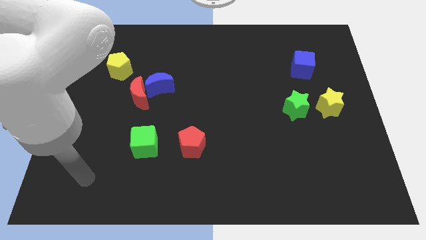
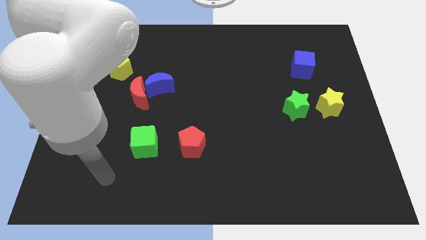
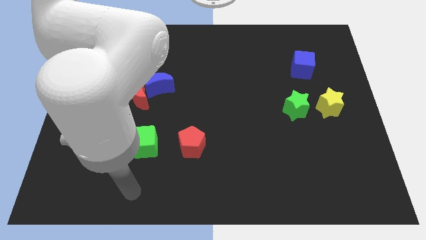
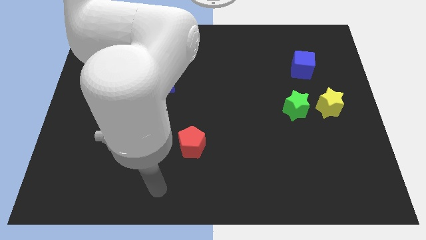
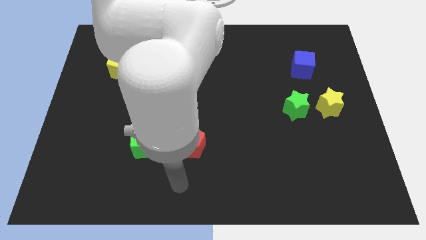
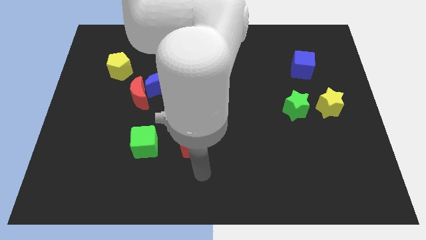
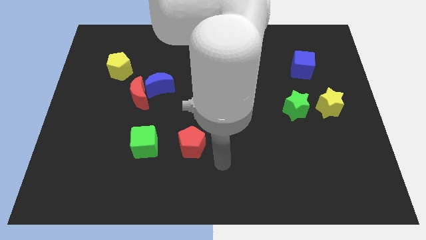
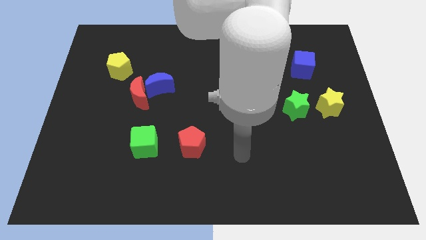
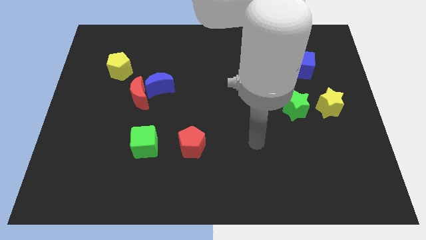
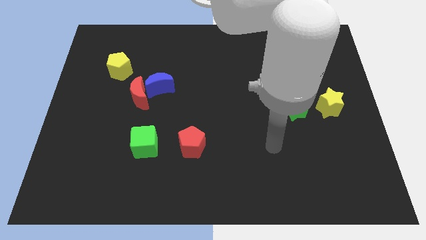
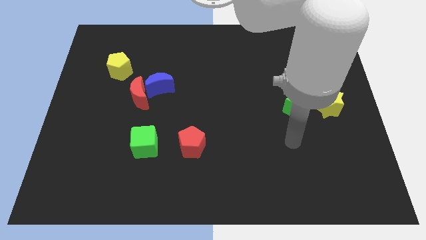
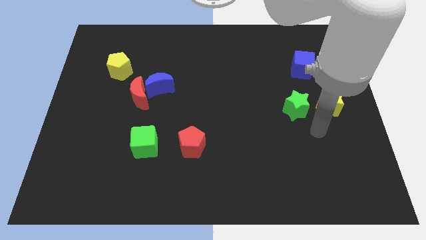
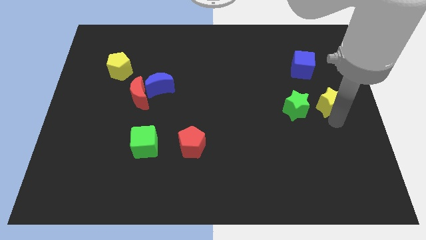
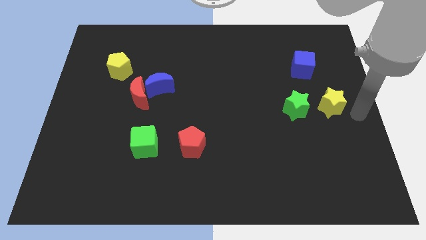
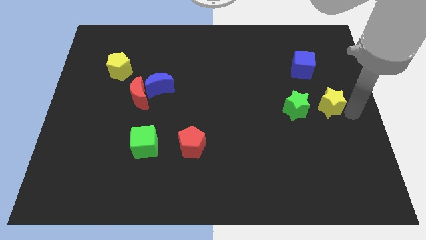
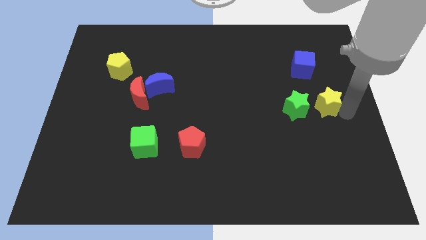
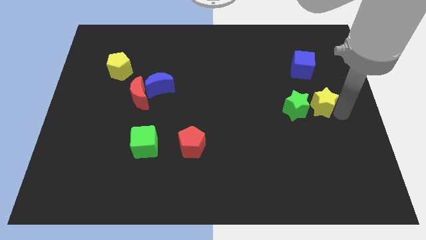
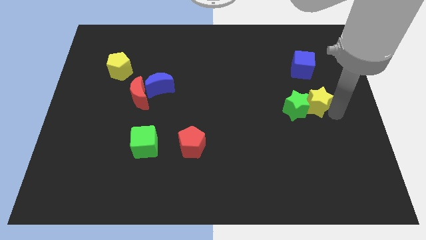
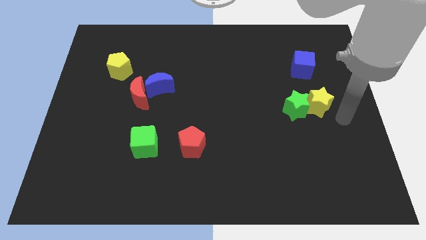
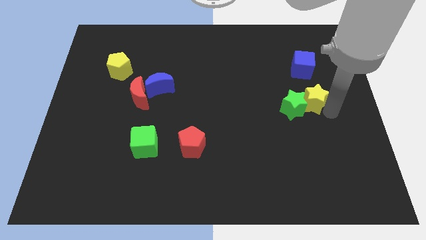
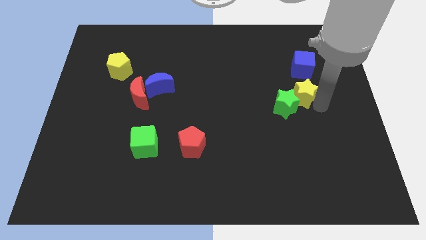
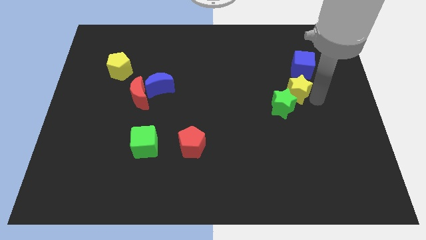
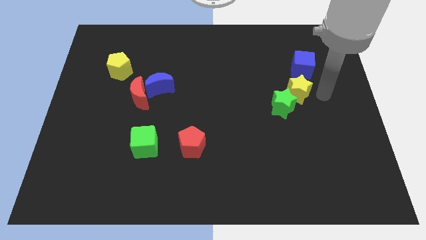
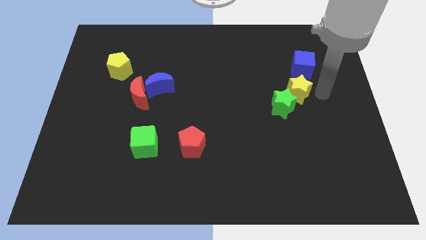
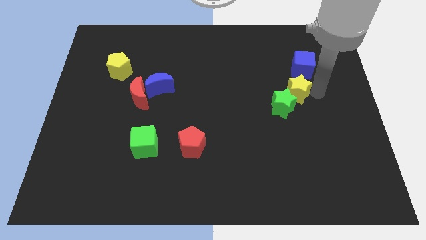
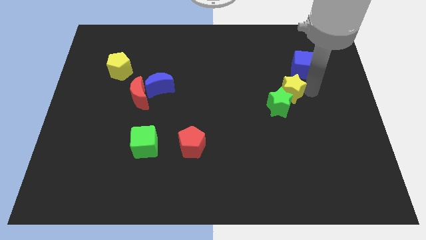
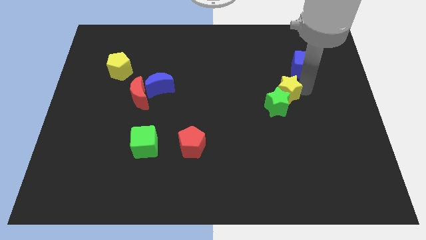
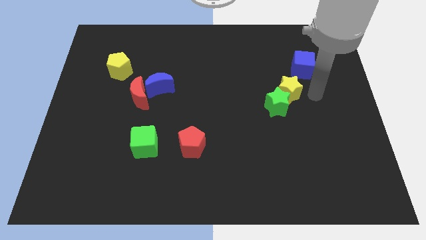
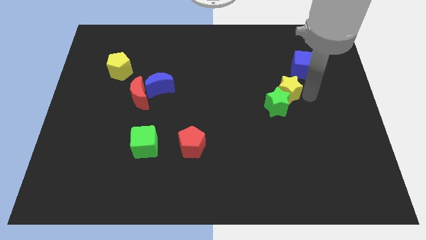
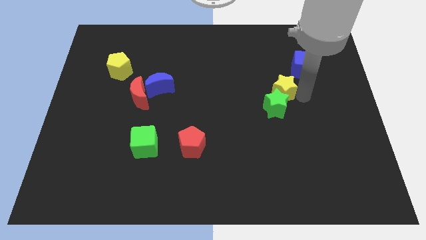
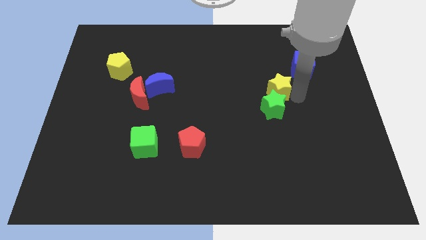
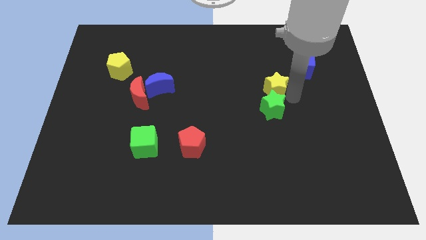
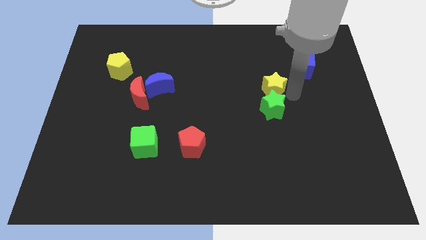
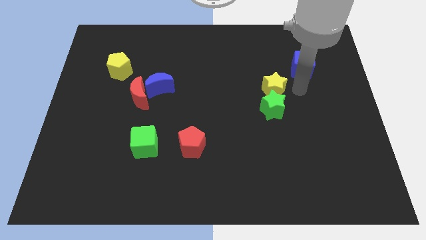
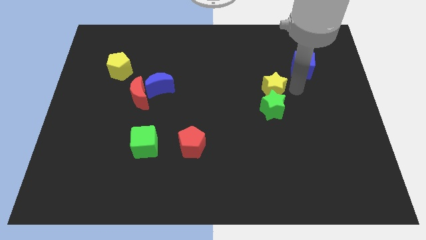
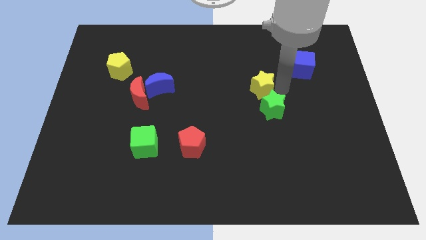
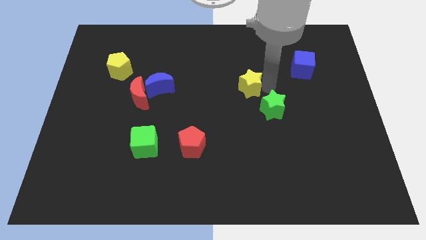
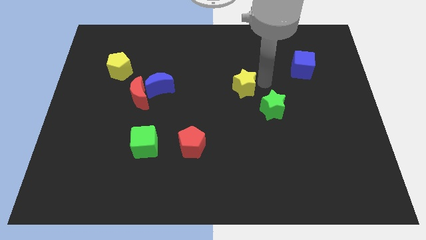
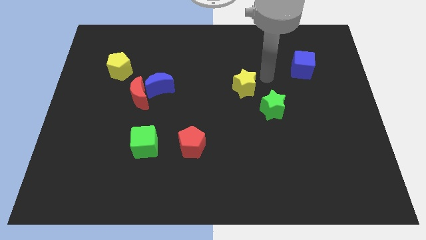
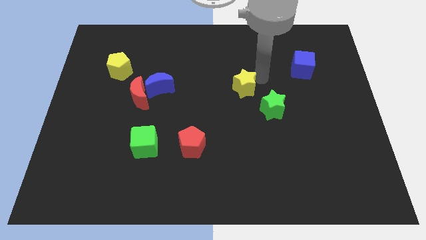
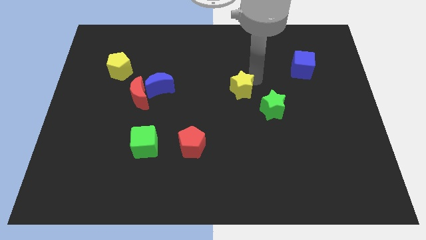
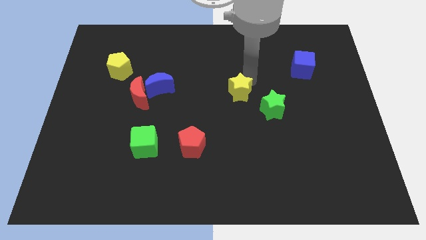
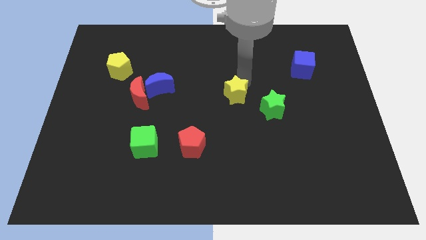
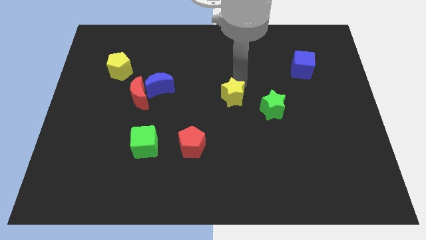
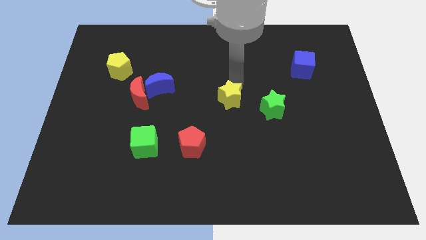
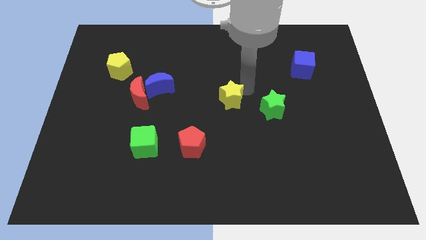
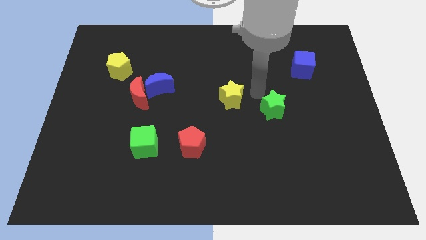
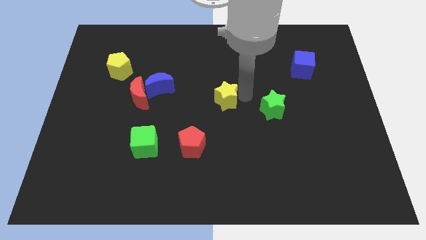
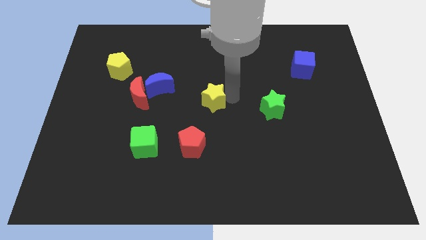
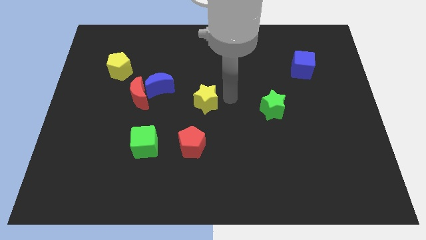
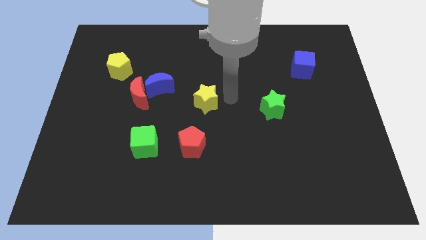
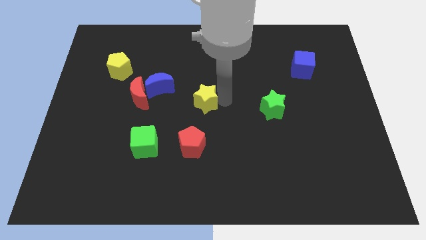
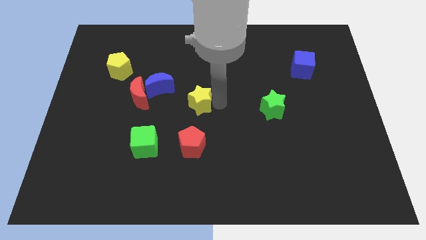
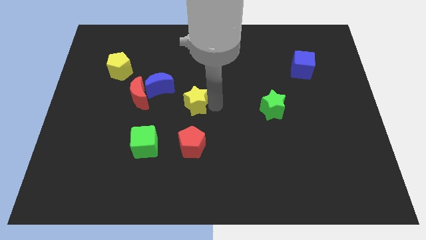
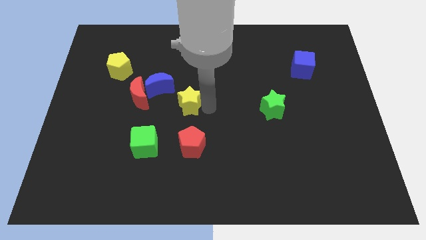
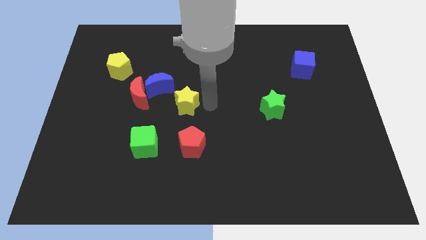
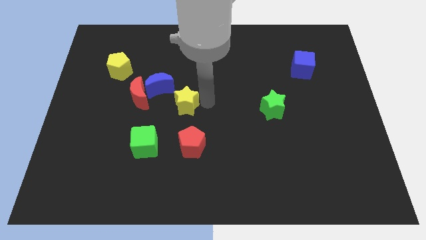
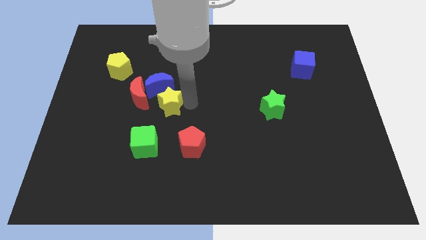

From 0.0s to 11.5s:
put the yellow star to the top side of the green cube

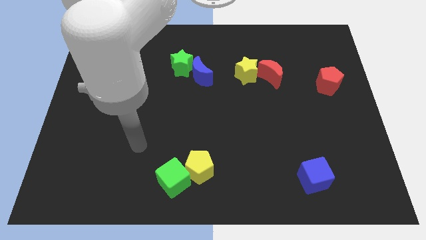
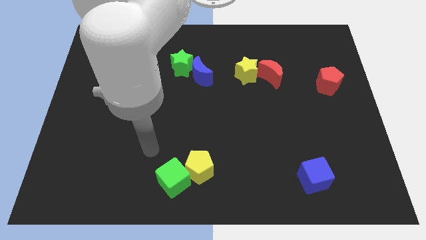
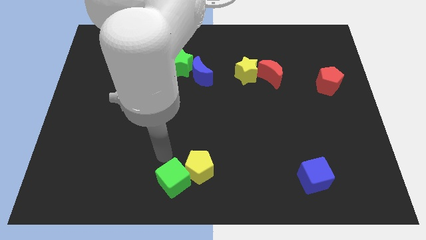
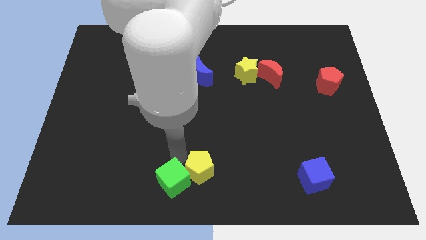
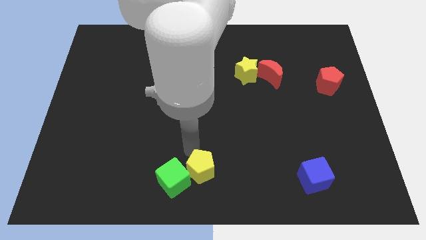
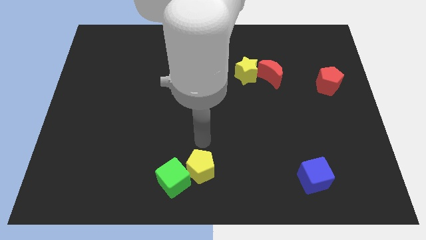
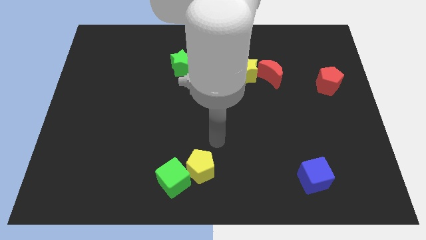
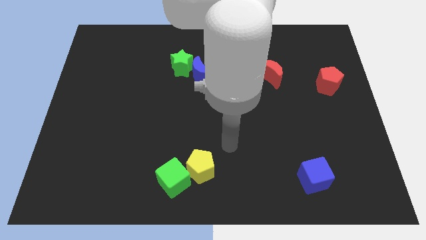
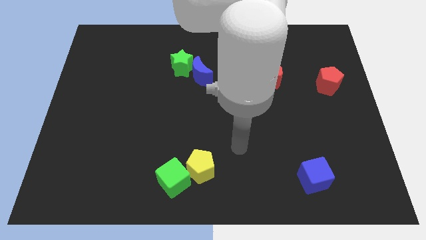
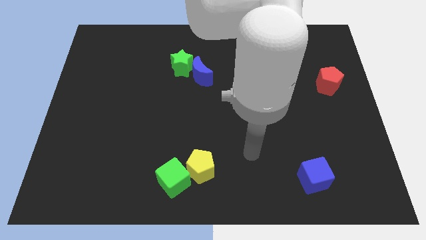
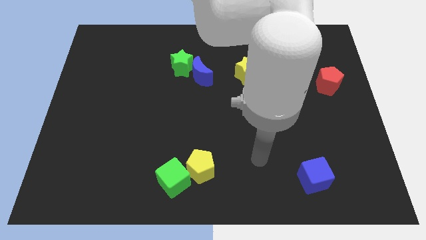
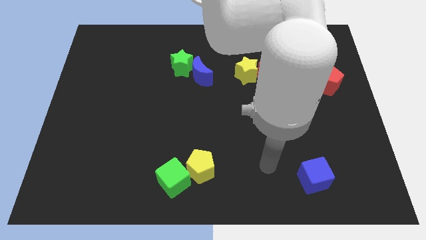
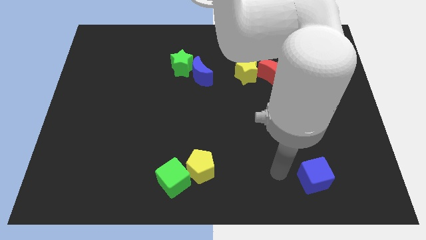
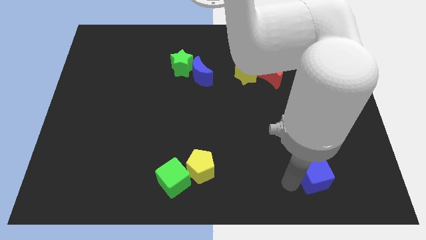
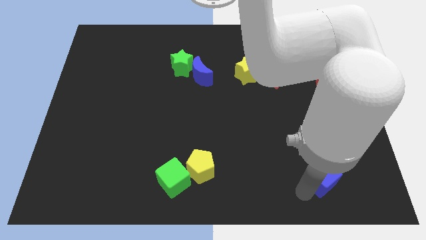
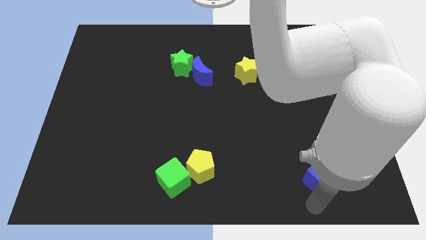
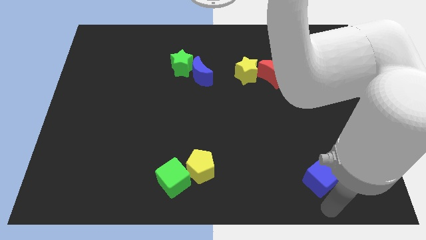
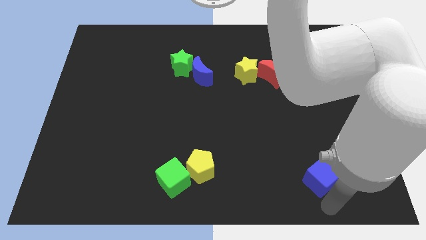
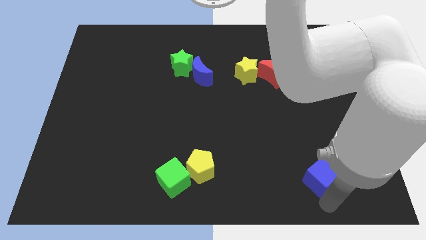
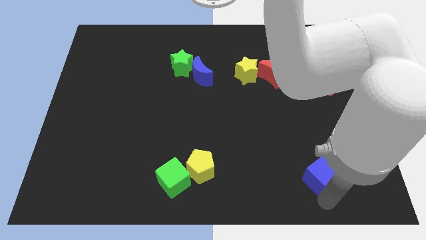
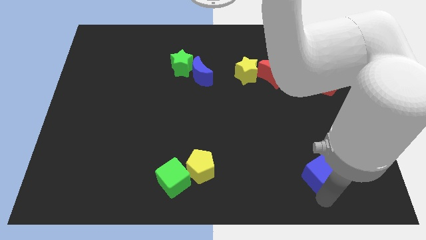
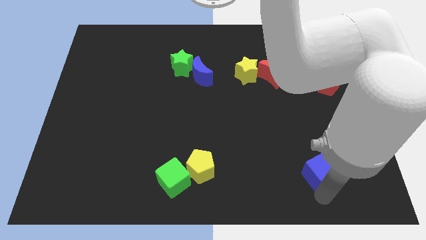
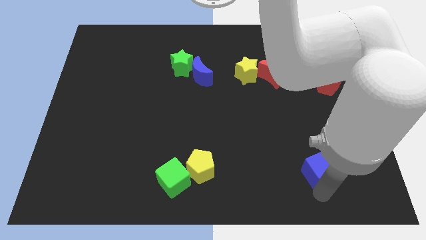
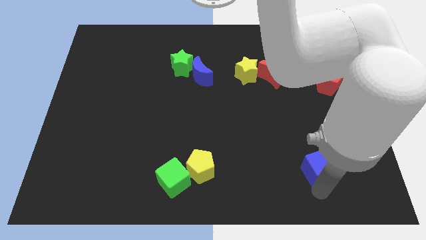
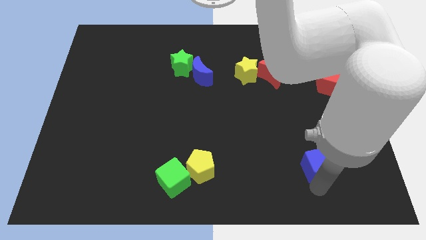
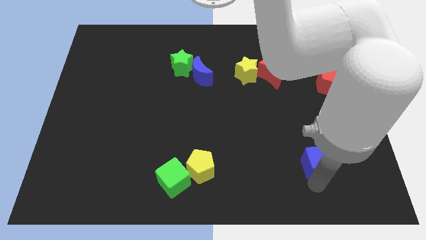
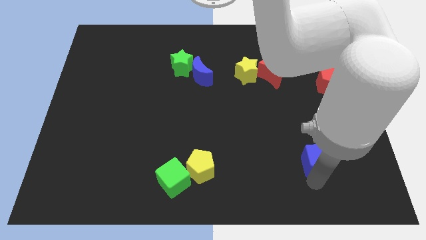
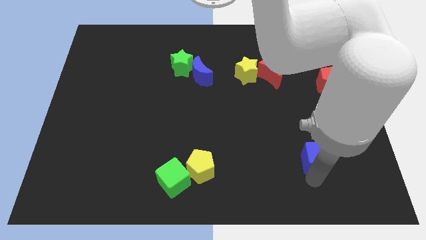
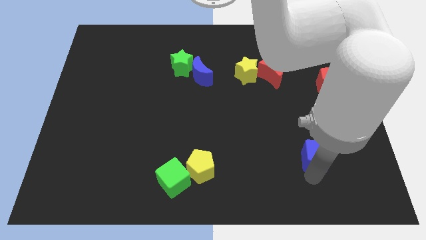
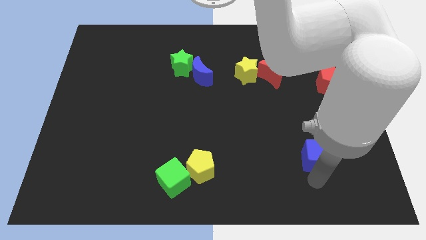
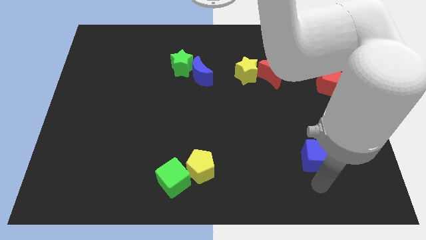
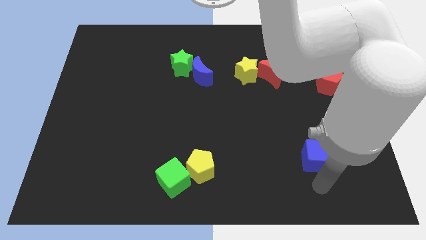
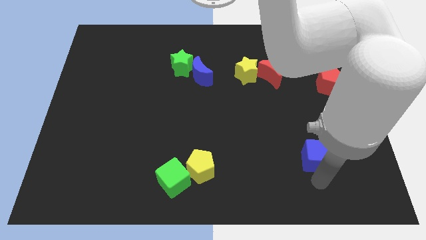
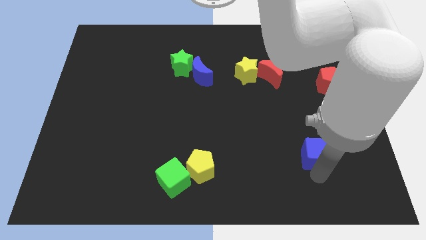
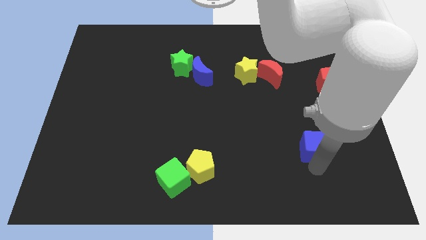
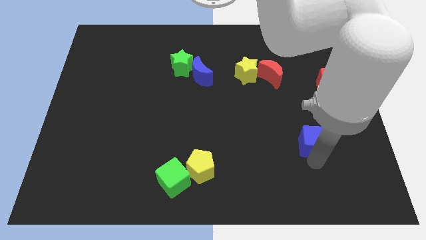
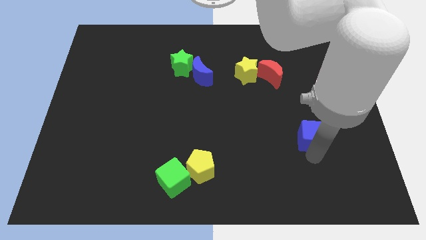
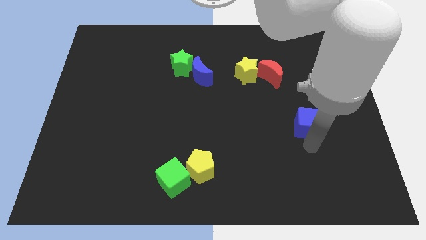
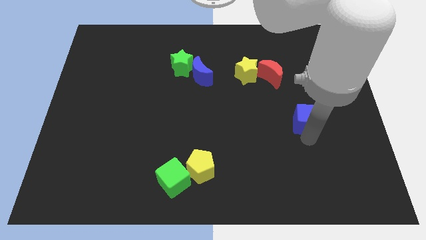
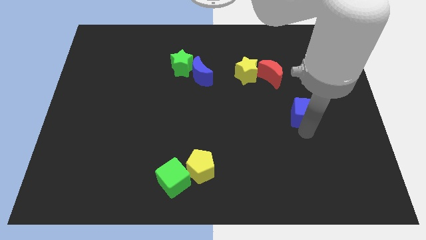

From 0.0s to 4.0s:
put the blue cube to the bottom left of the red pentagon
